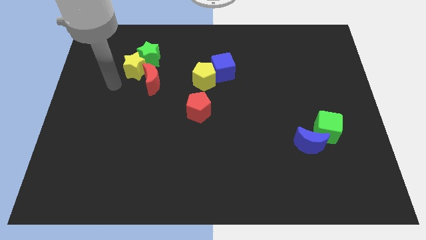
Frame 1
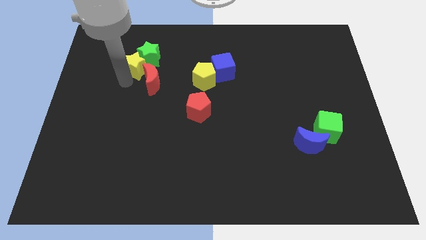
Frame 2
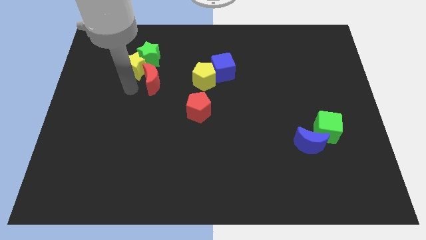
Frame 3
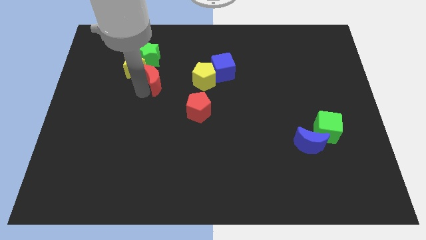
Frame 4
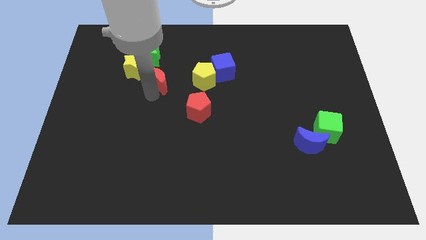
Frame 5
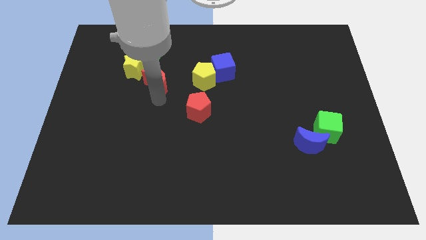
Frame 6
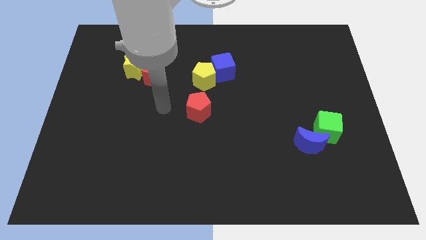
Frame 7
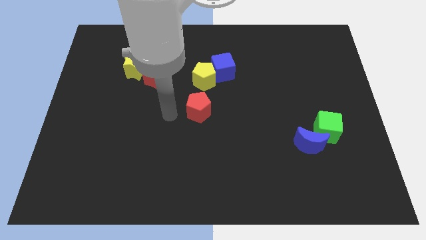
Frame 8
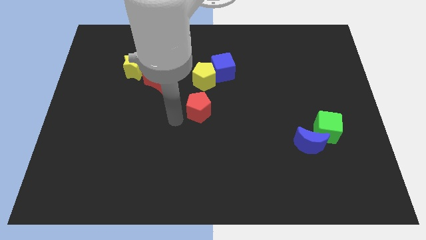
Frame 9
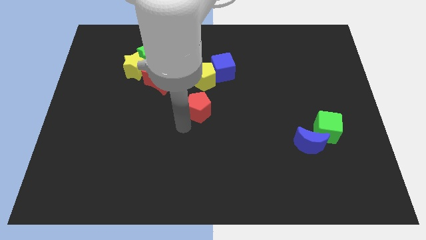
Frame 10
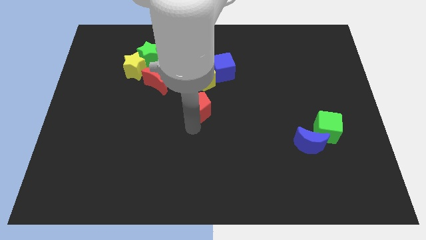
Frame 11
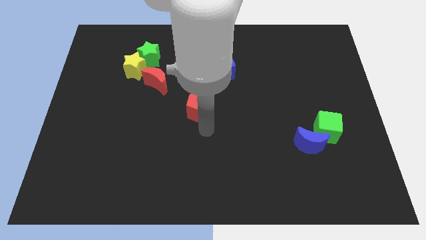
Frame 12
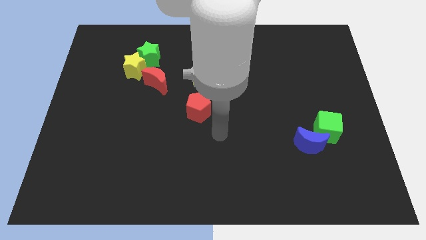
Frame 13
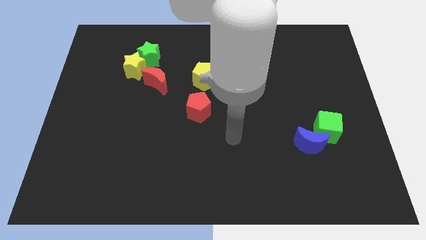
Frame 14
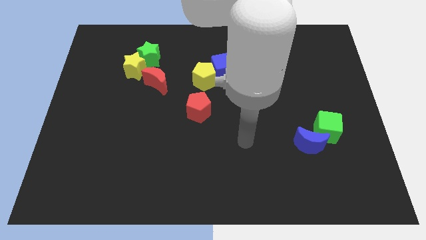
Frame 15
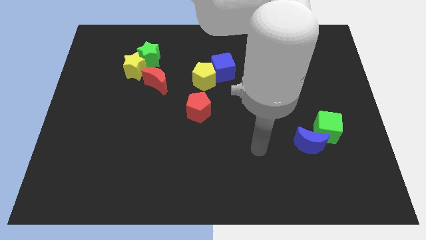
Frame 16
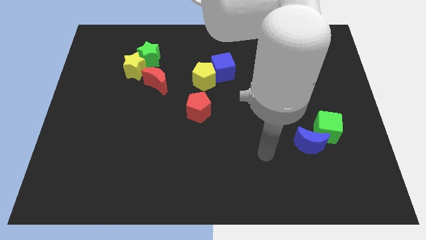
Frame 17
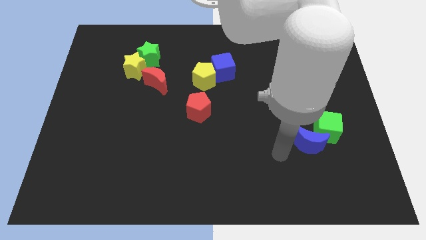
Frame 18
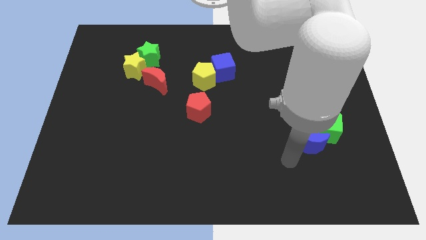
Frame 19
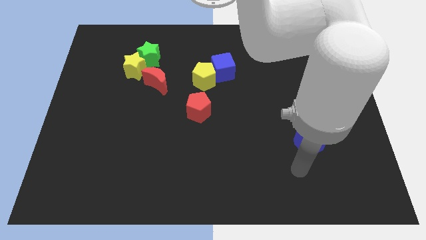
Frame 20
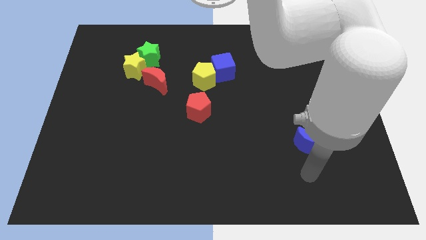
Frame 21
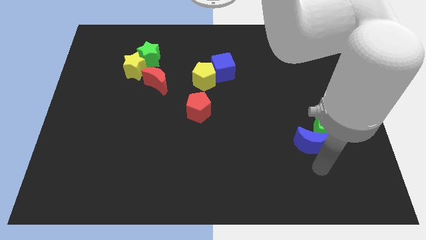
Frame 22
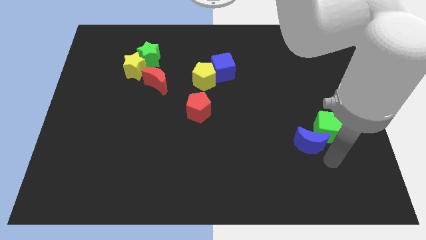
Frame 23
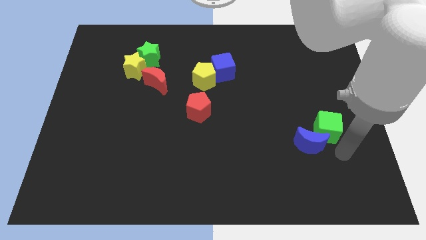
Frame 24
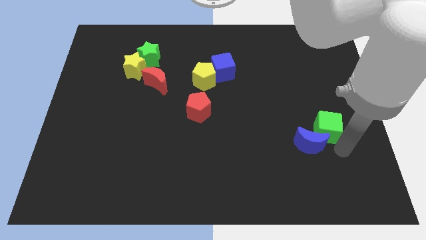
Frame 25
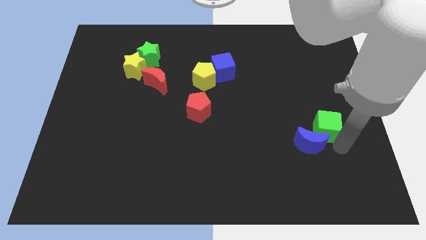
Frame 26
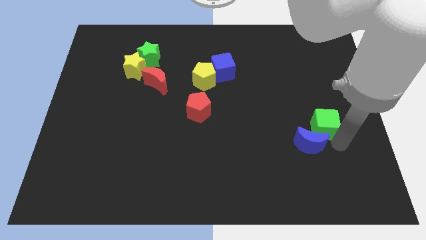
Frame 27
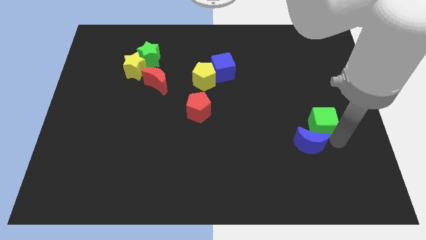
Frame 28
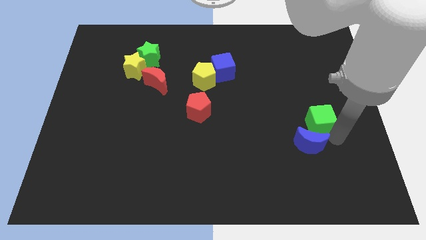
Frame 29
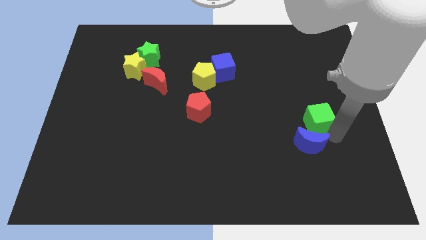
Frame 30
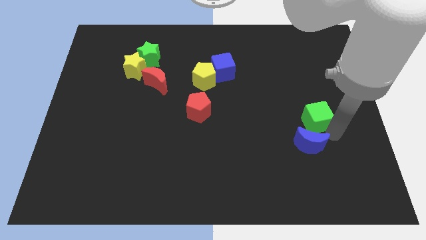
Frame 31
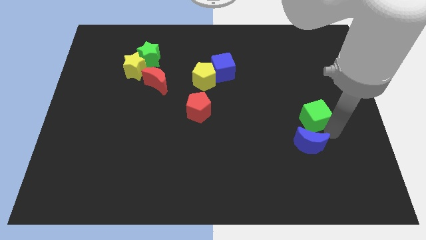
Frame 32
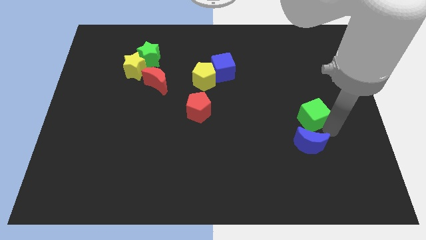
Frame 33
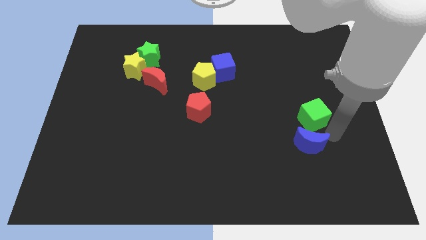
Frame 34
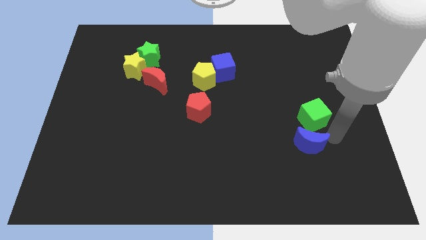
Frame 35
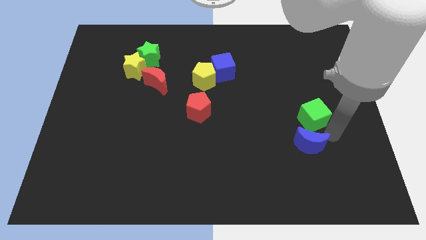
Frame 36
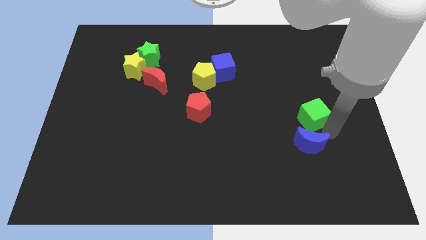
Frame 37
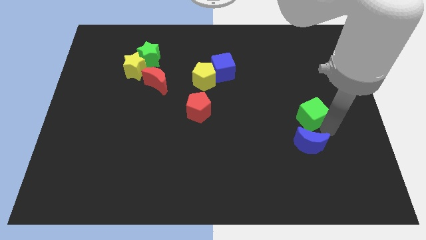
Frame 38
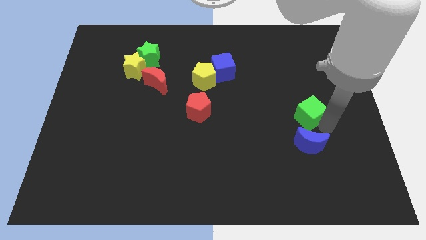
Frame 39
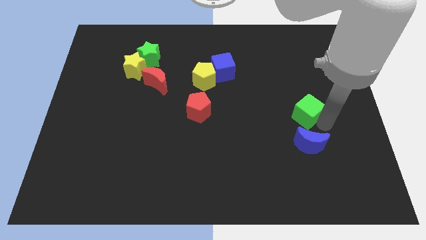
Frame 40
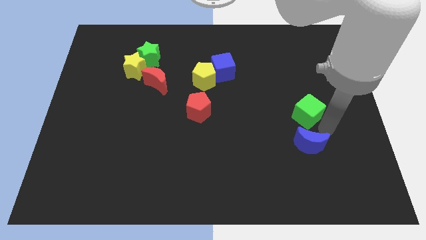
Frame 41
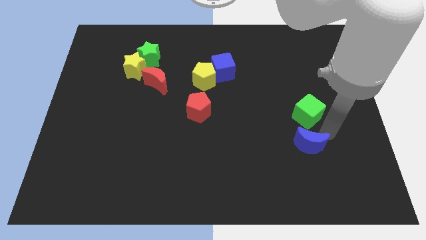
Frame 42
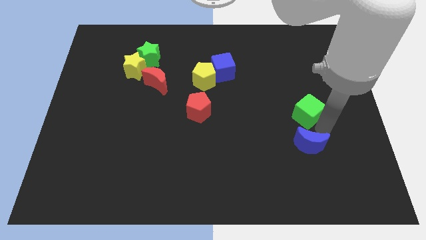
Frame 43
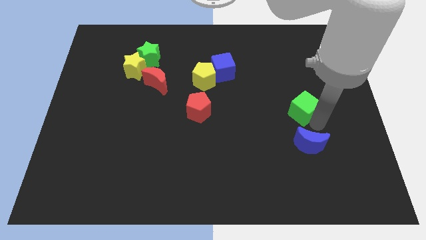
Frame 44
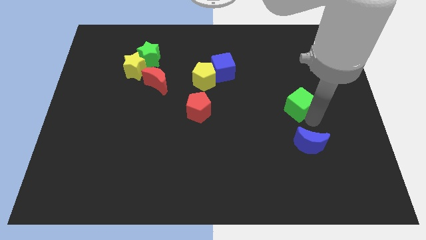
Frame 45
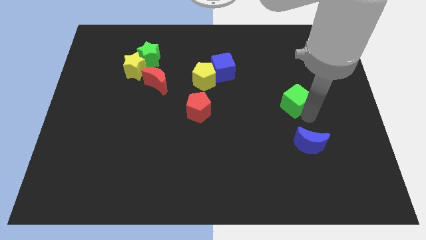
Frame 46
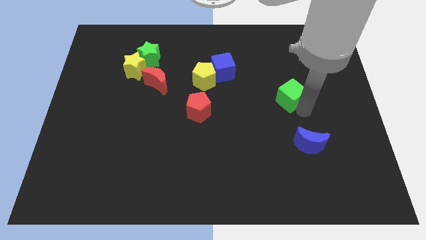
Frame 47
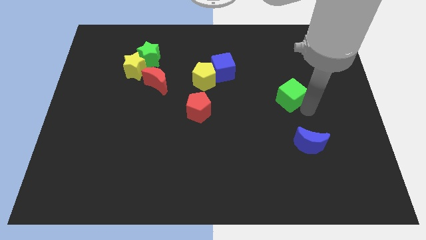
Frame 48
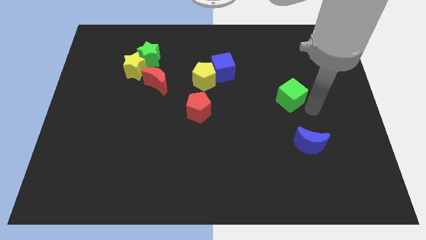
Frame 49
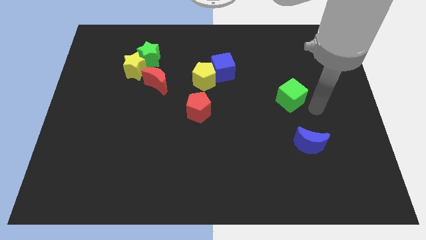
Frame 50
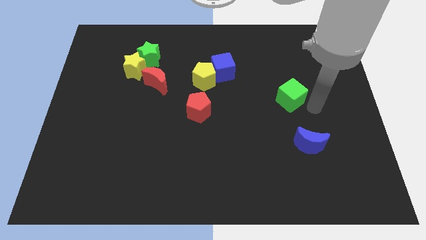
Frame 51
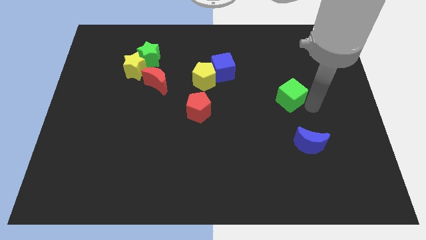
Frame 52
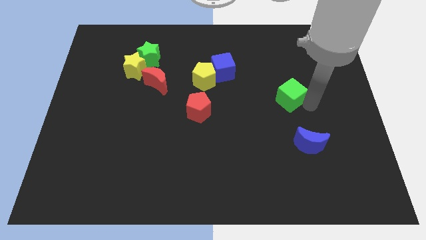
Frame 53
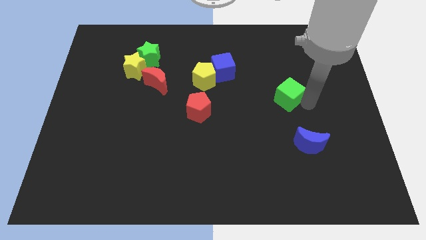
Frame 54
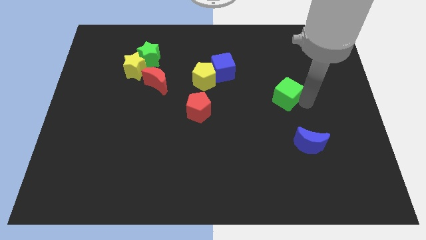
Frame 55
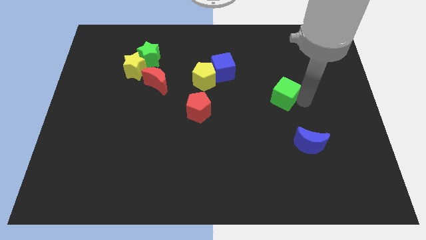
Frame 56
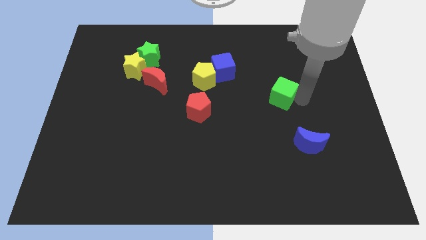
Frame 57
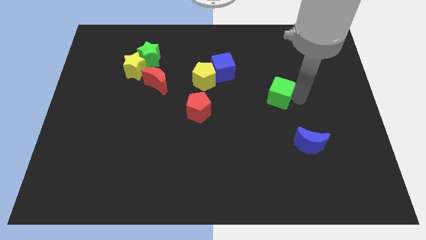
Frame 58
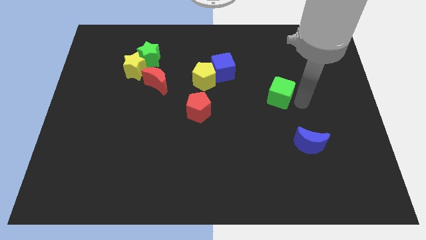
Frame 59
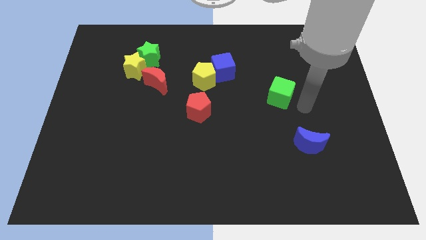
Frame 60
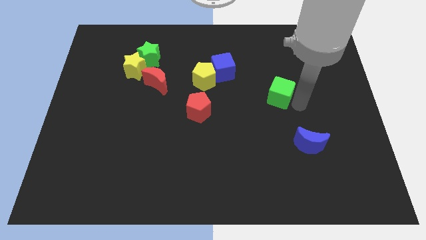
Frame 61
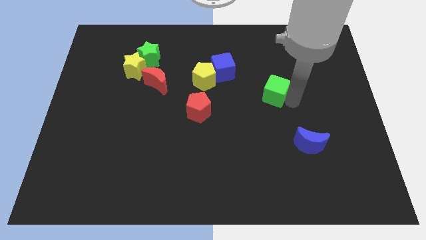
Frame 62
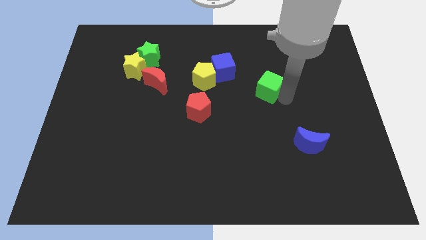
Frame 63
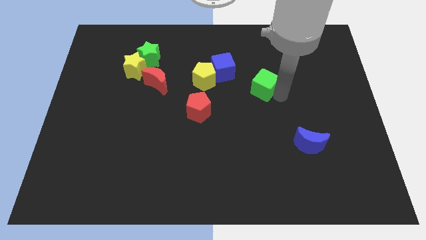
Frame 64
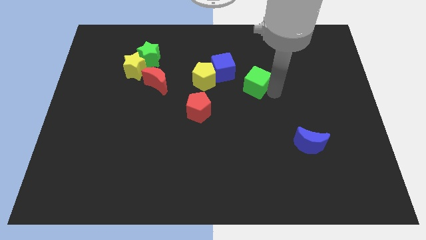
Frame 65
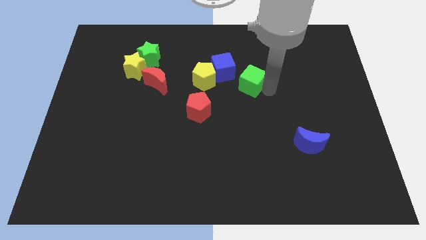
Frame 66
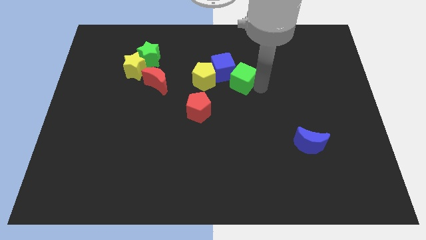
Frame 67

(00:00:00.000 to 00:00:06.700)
move the green cube towards the blue cube

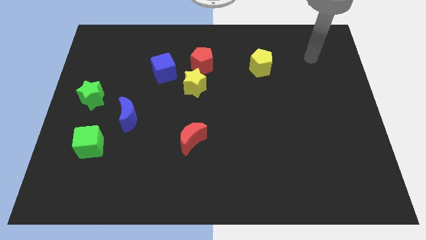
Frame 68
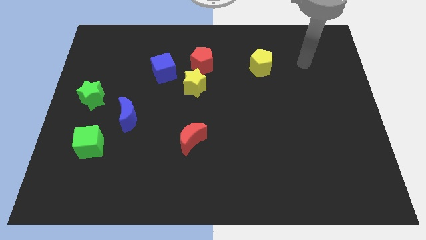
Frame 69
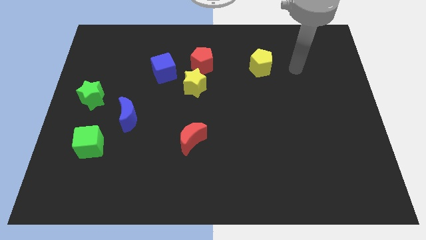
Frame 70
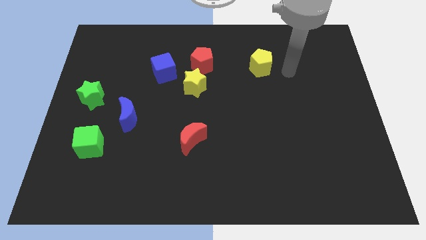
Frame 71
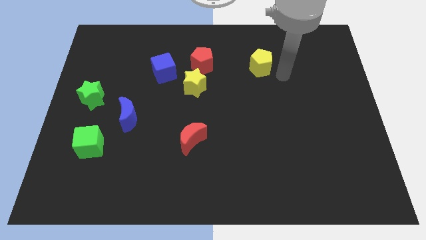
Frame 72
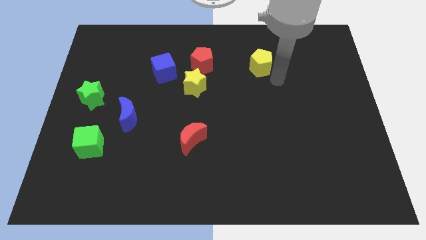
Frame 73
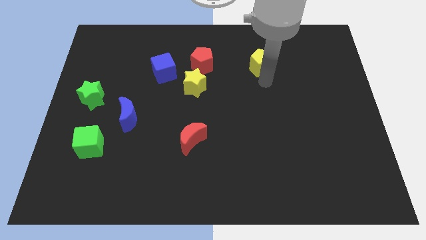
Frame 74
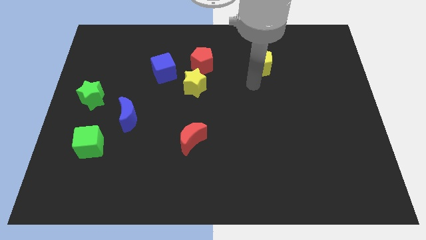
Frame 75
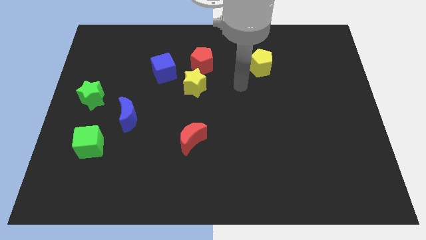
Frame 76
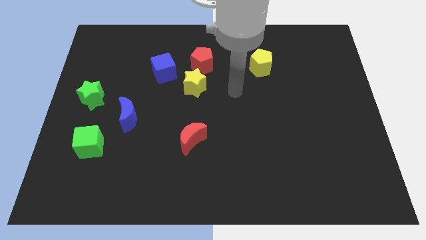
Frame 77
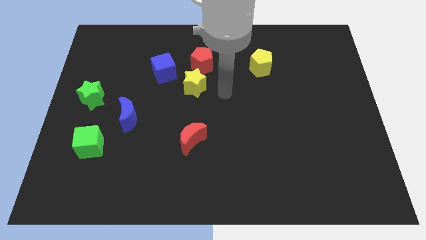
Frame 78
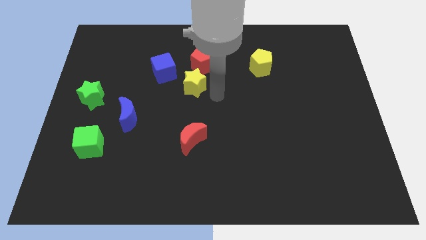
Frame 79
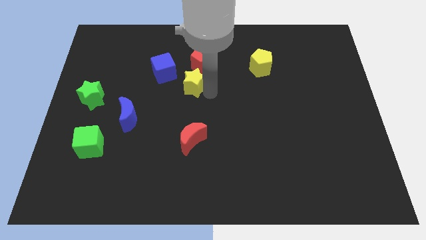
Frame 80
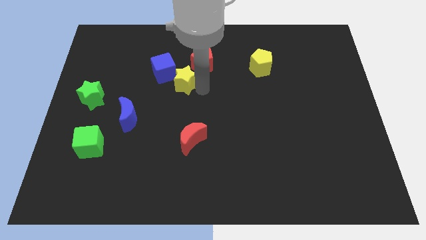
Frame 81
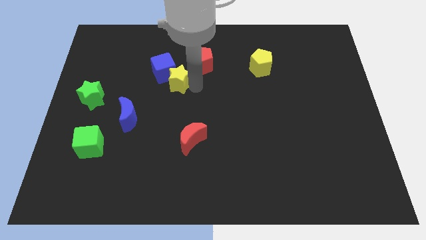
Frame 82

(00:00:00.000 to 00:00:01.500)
push the yellow star towards the blue cube
